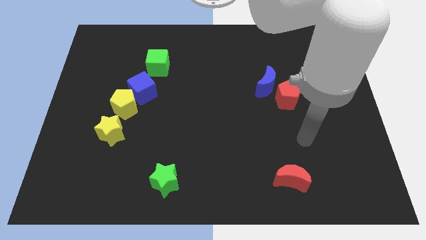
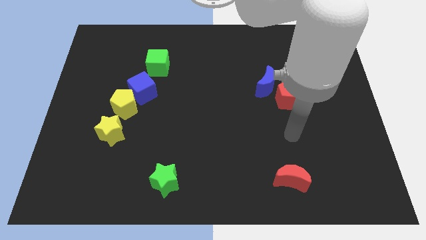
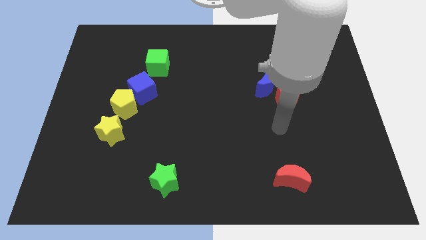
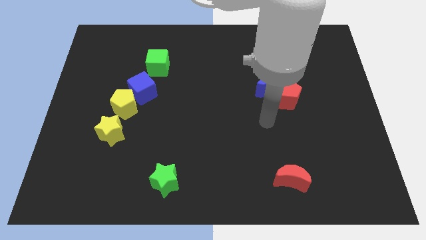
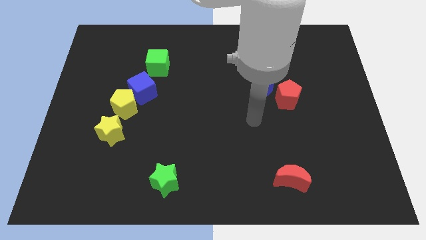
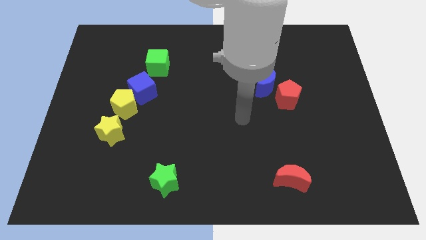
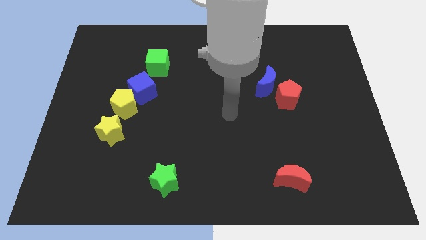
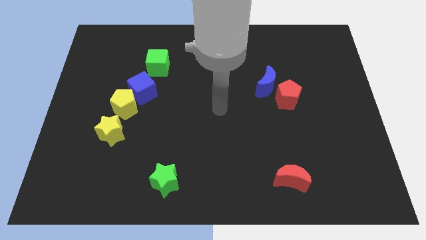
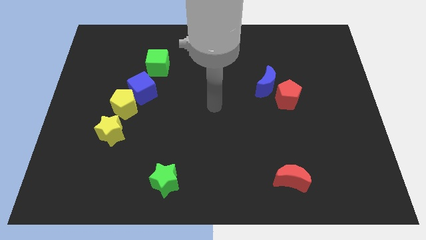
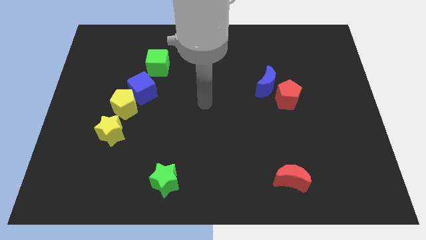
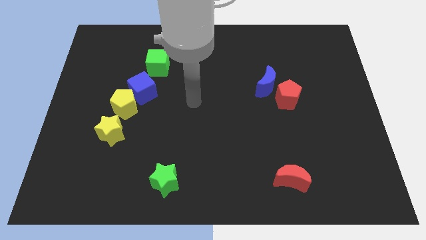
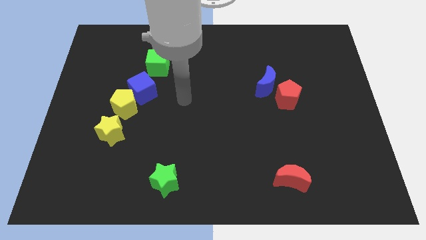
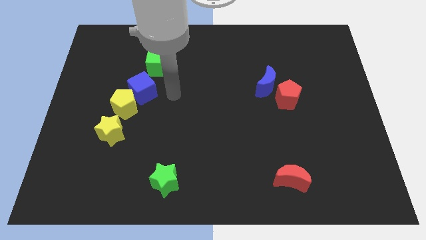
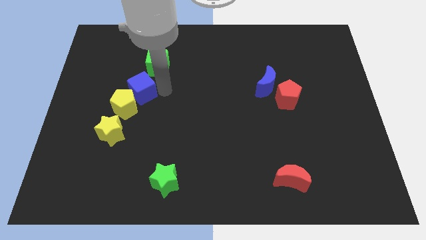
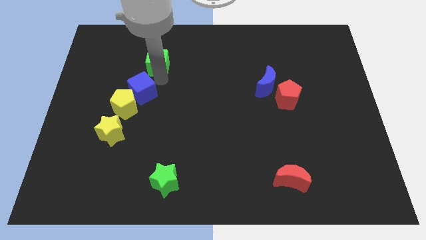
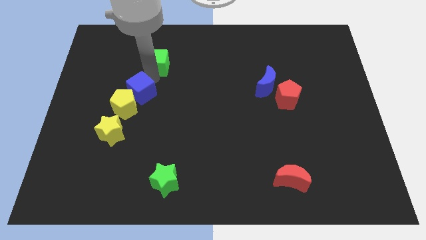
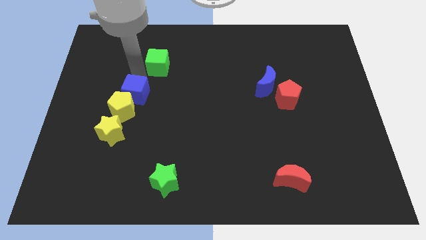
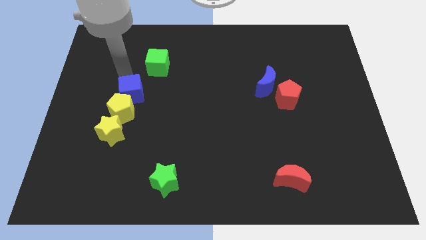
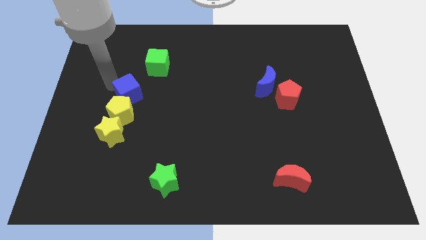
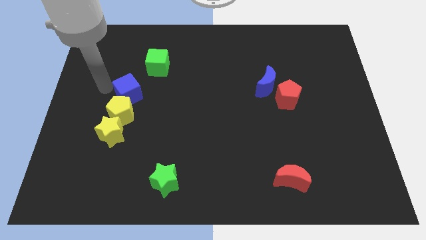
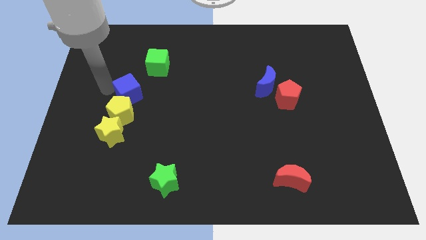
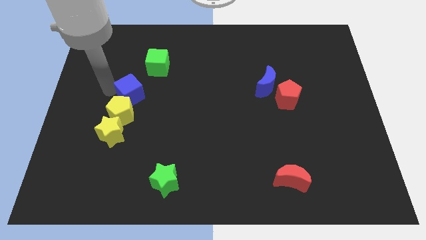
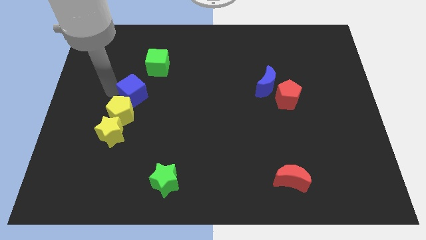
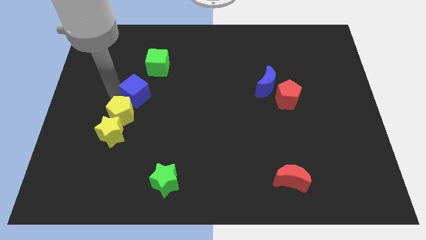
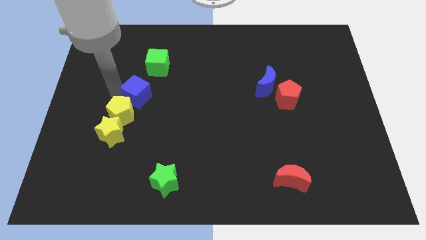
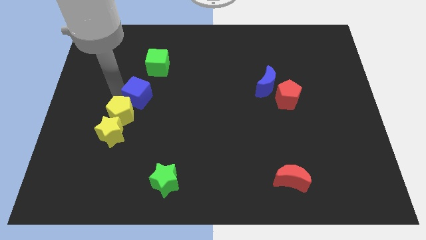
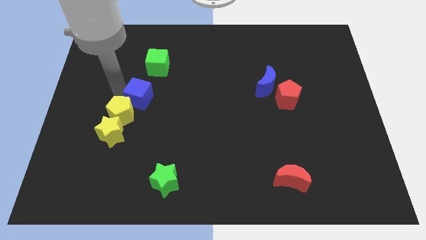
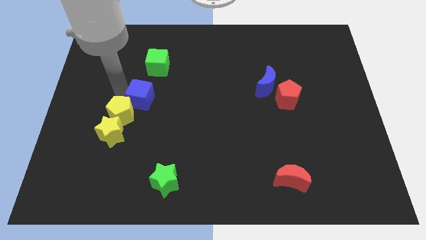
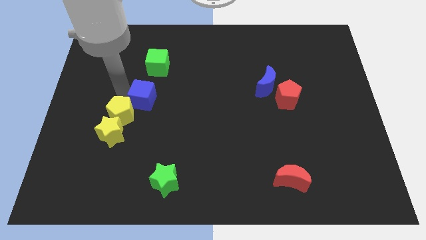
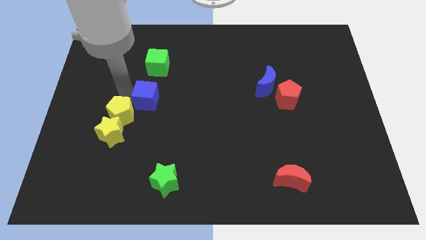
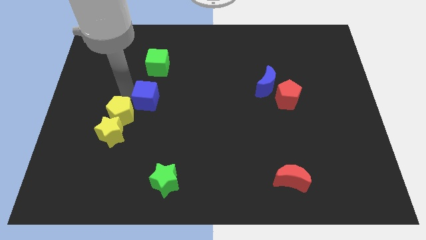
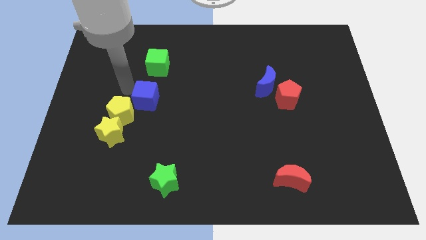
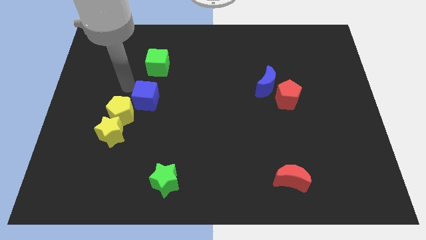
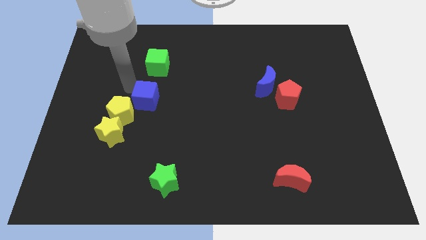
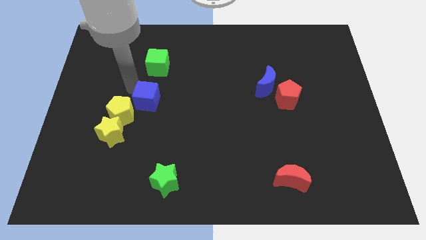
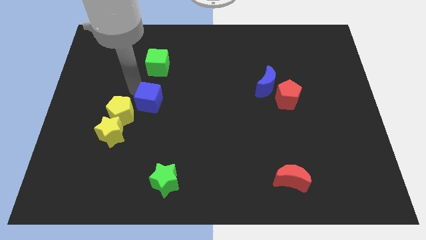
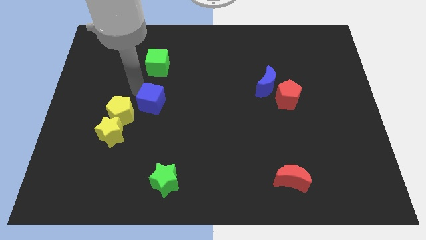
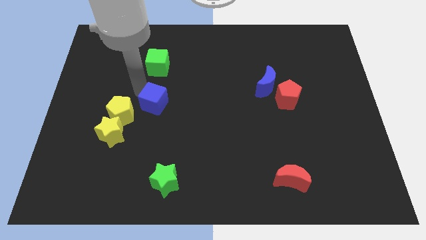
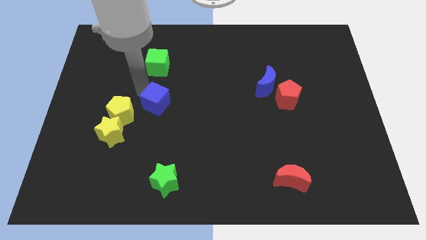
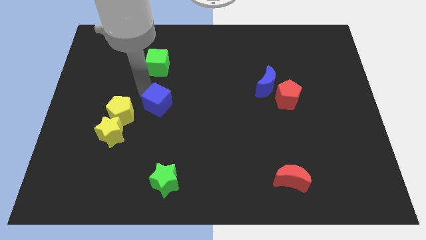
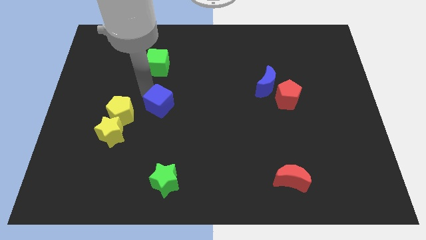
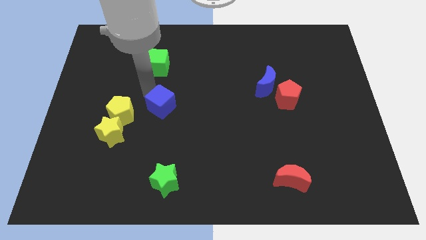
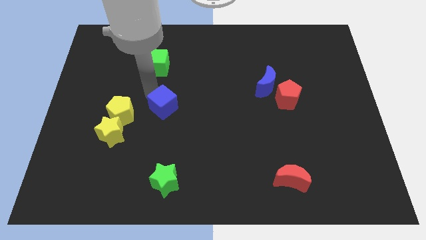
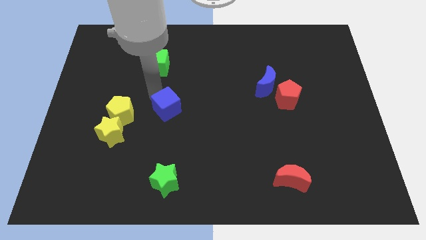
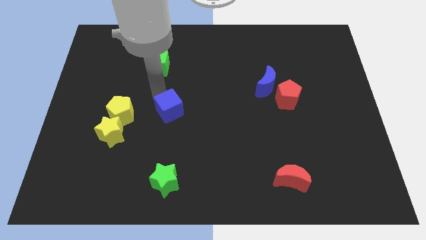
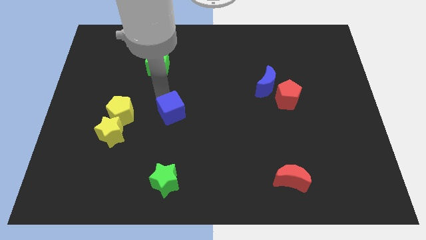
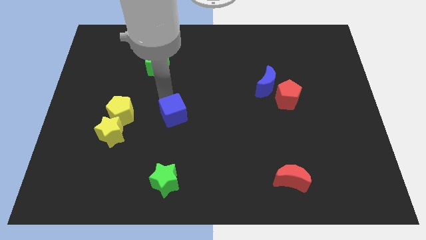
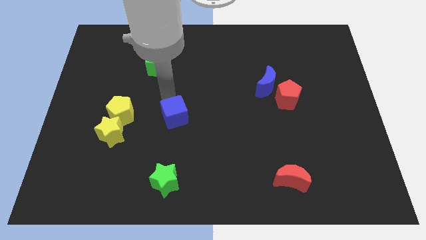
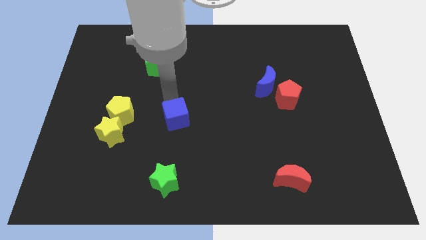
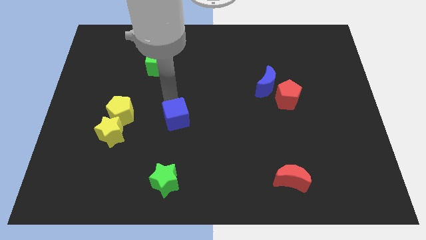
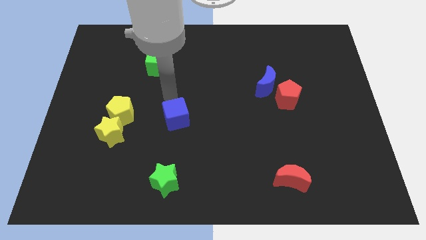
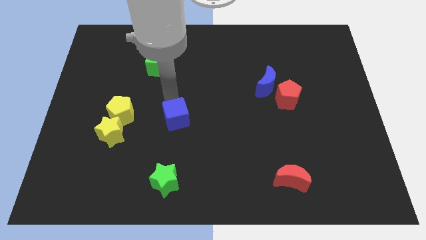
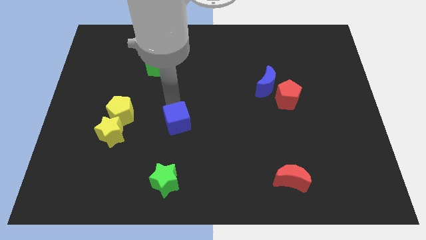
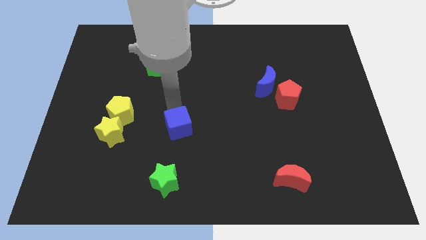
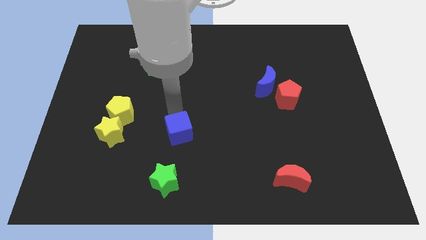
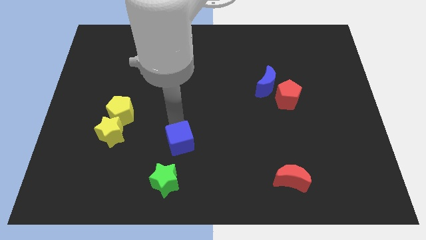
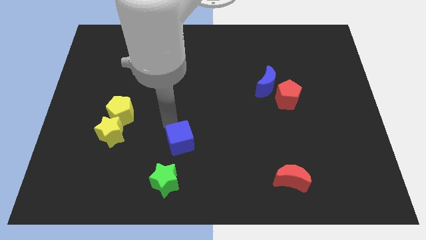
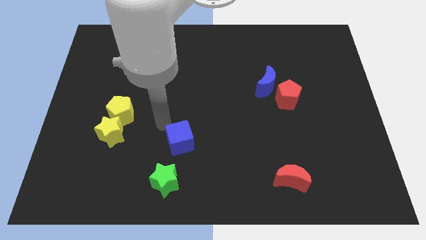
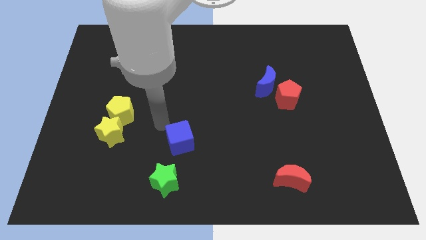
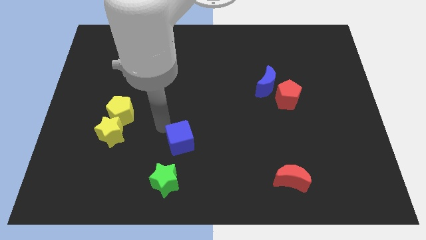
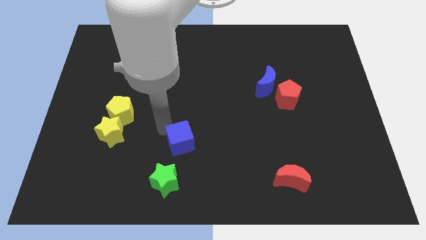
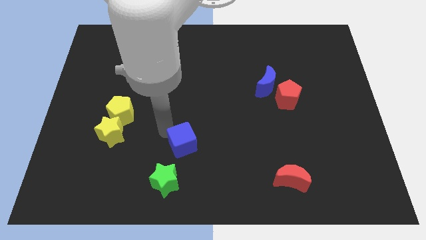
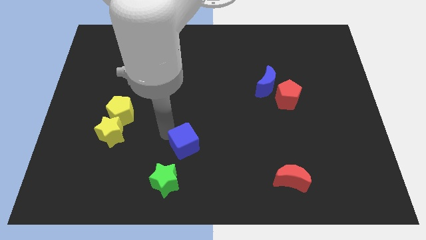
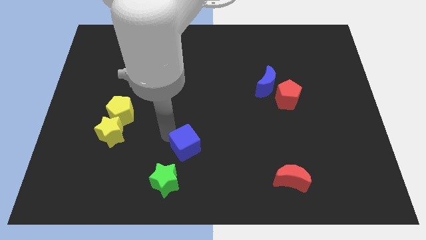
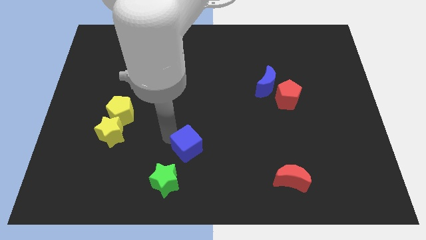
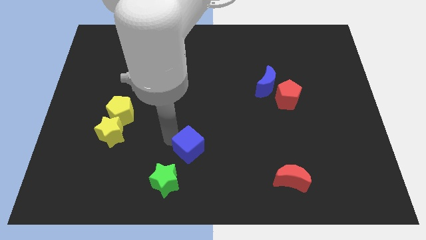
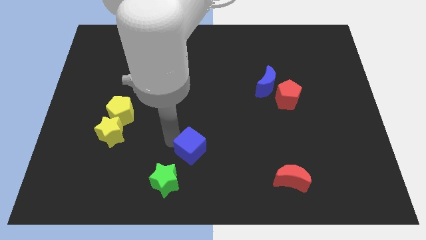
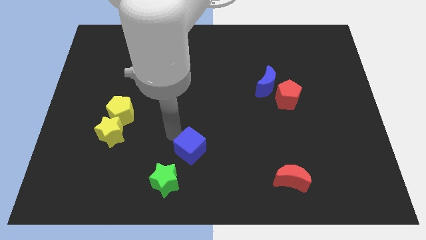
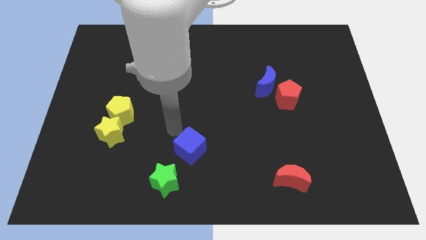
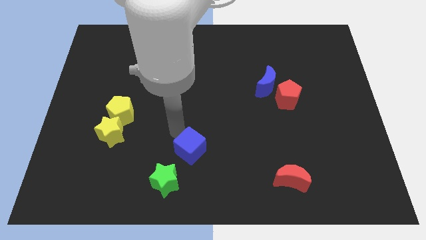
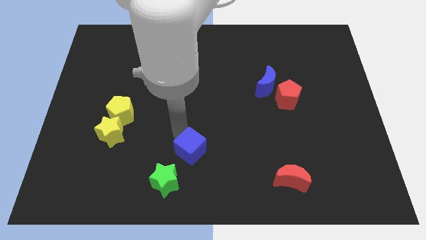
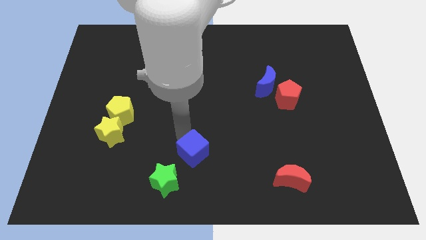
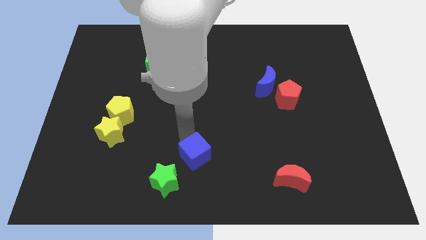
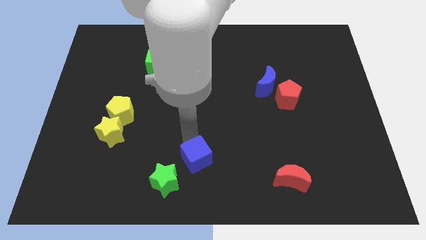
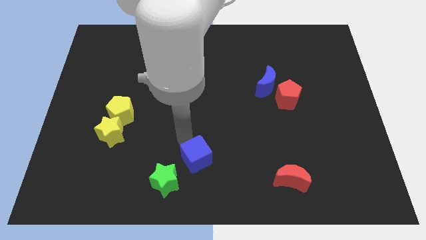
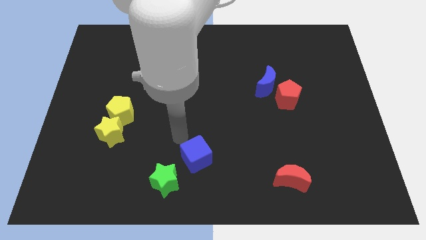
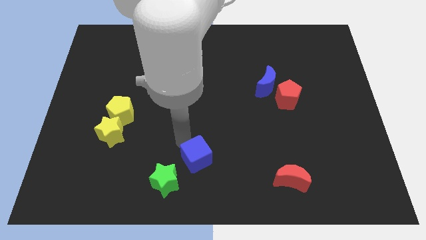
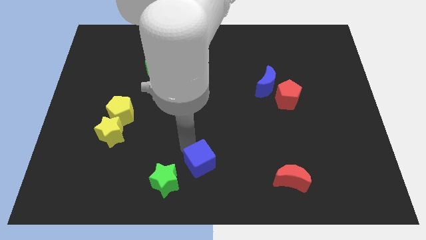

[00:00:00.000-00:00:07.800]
push the blue cube right of the green star

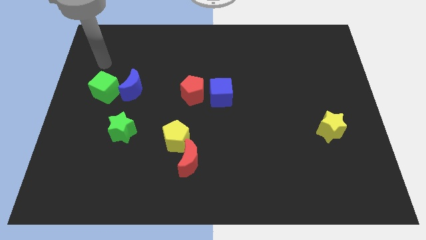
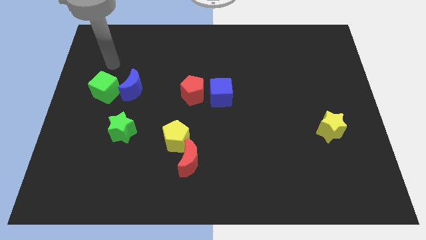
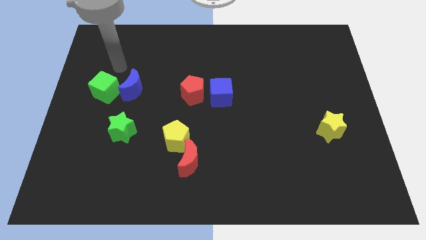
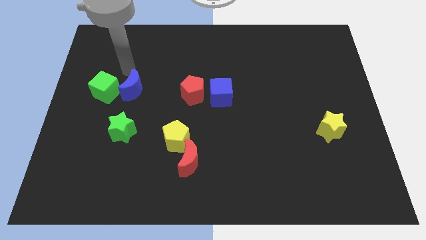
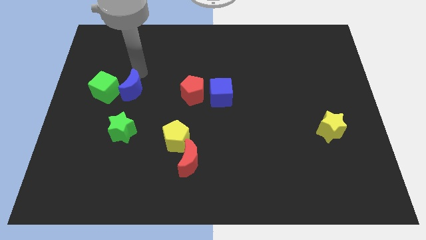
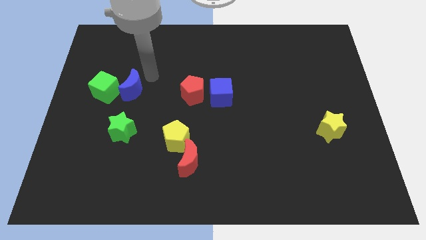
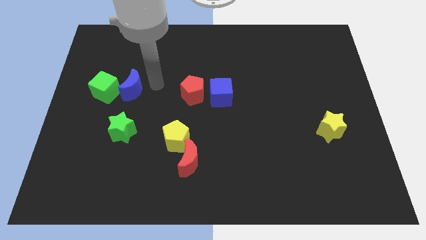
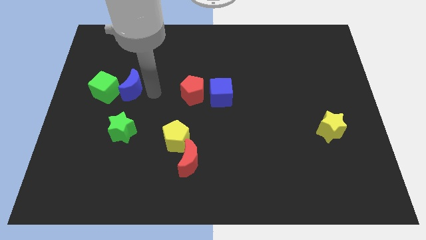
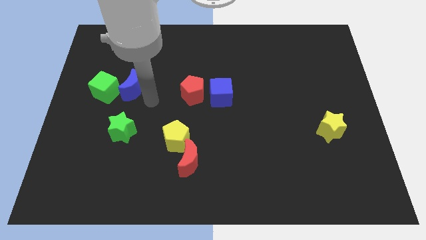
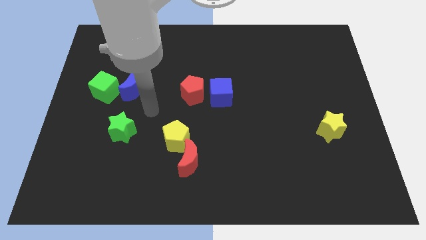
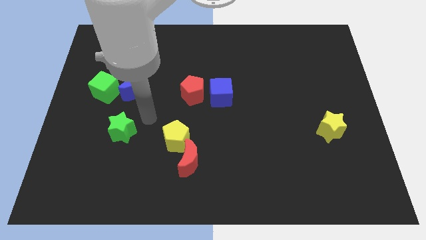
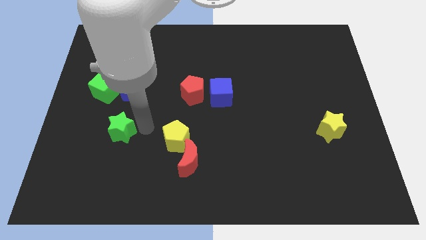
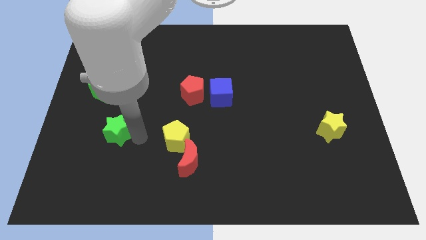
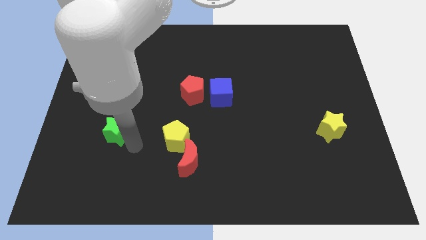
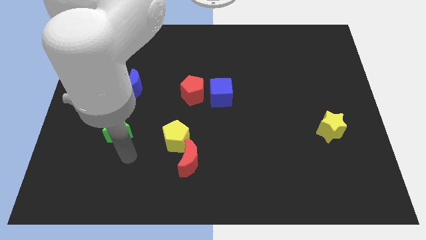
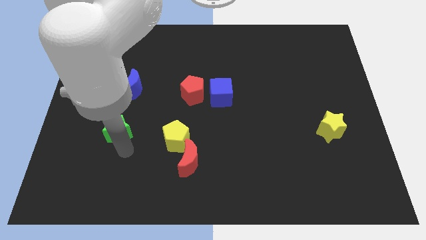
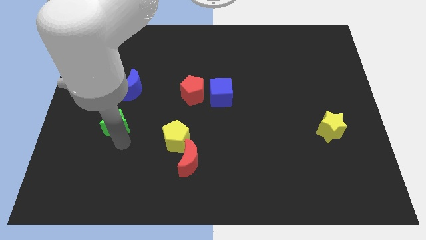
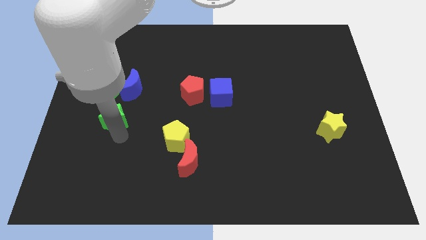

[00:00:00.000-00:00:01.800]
push the green star to the bottom left side of the blue moon
